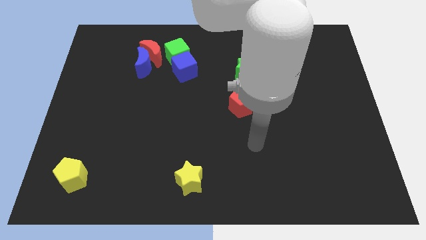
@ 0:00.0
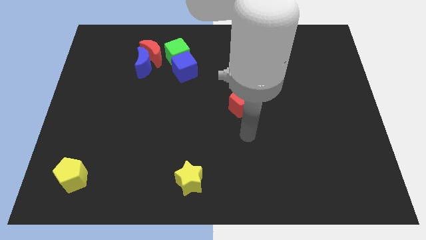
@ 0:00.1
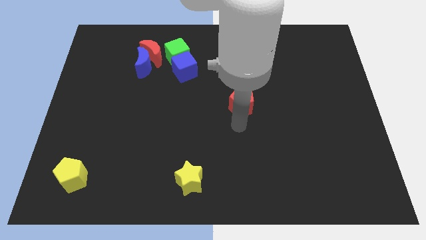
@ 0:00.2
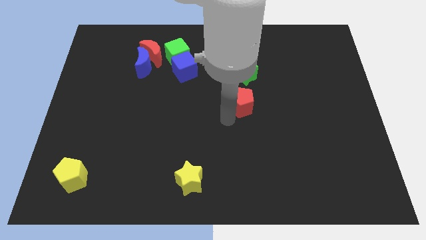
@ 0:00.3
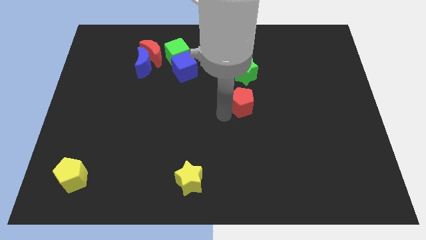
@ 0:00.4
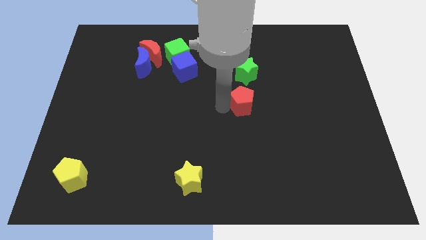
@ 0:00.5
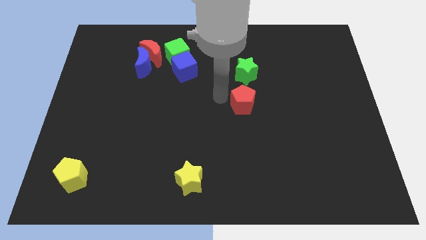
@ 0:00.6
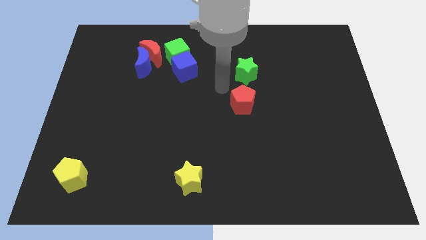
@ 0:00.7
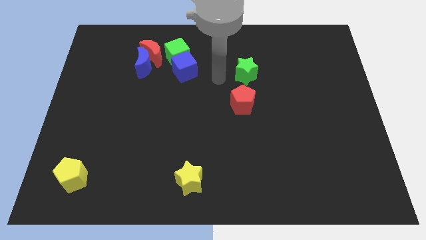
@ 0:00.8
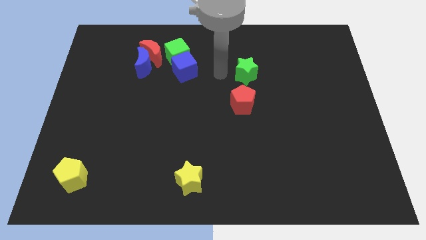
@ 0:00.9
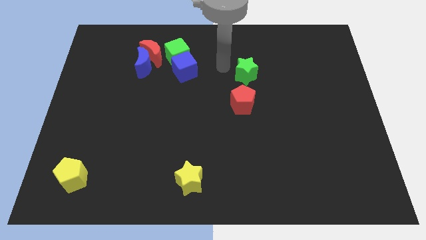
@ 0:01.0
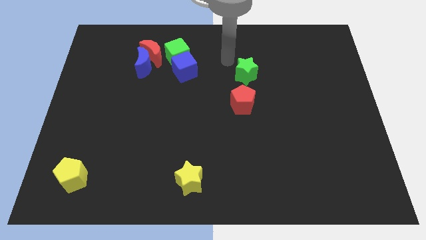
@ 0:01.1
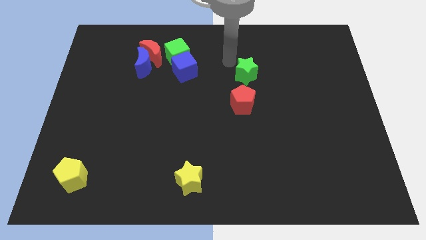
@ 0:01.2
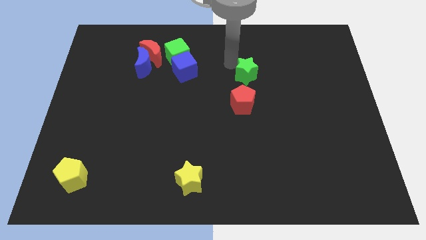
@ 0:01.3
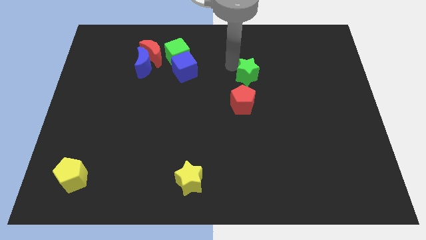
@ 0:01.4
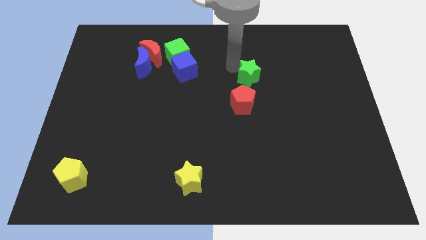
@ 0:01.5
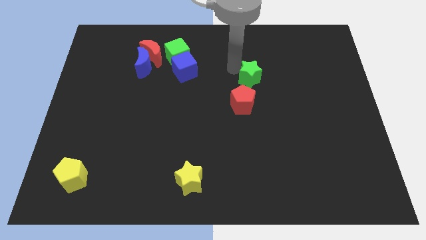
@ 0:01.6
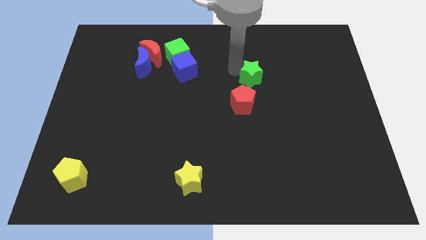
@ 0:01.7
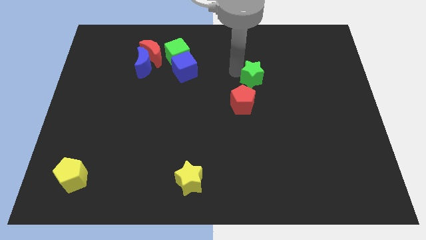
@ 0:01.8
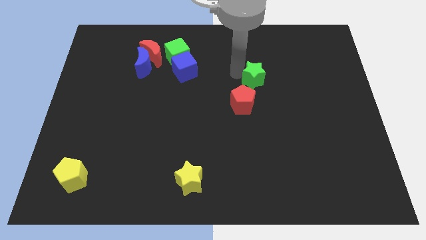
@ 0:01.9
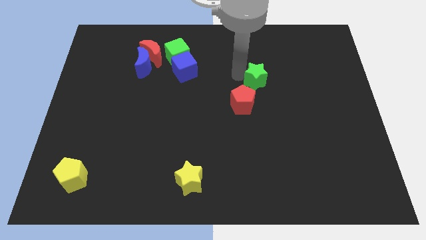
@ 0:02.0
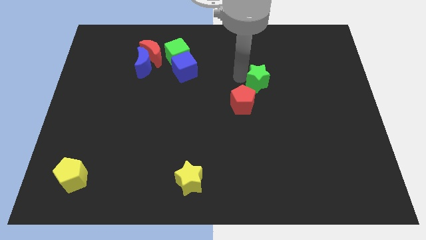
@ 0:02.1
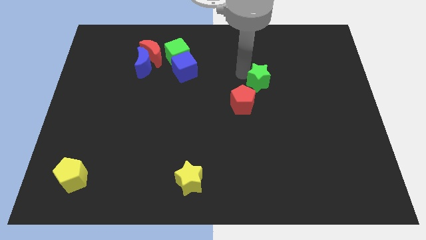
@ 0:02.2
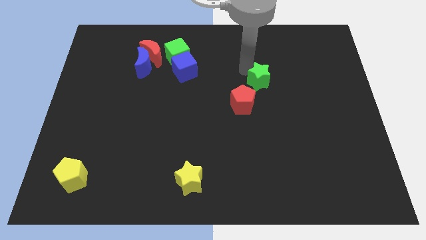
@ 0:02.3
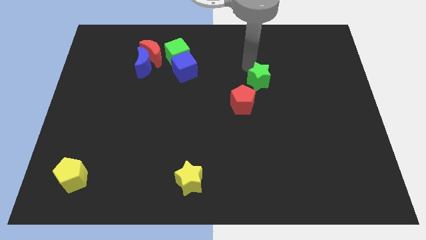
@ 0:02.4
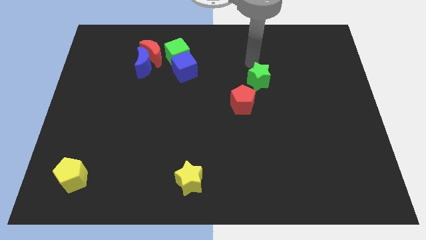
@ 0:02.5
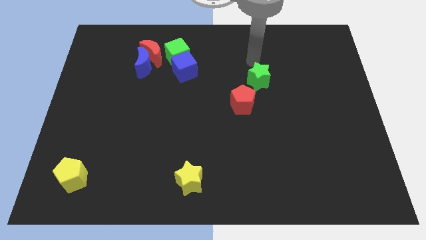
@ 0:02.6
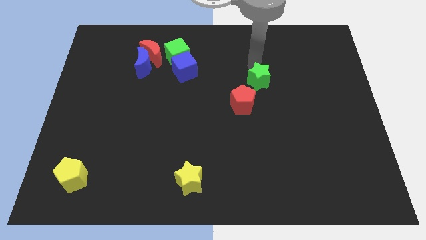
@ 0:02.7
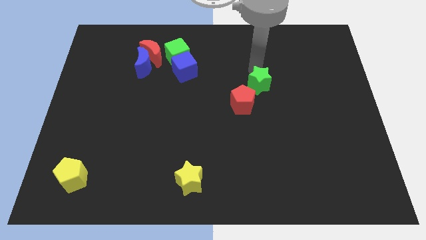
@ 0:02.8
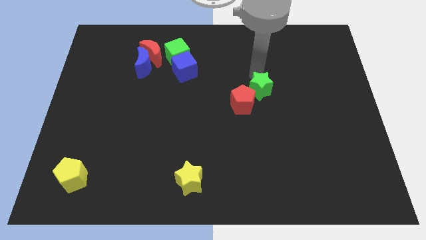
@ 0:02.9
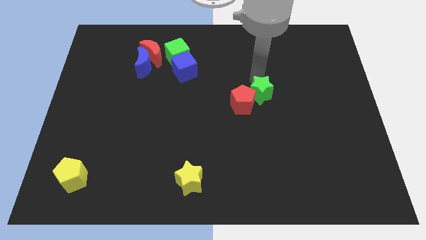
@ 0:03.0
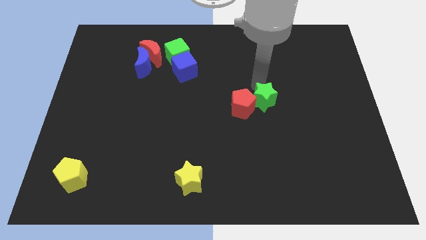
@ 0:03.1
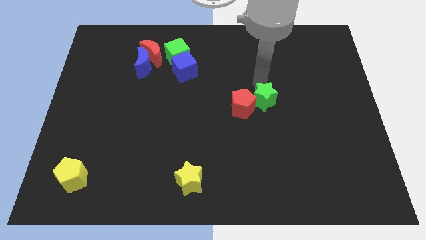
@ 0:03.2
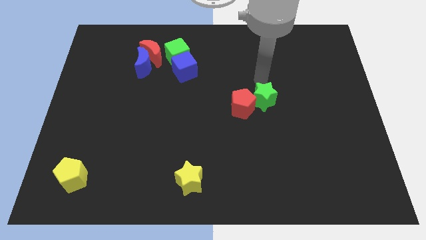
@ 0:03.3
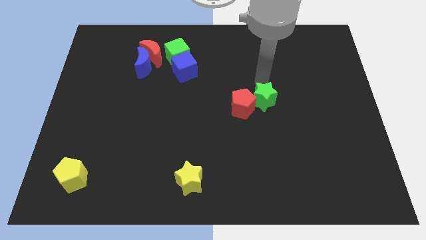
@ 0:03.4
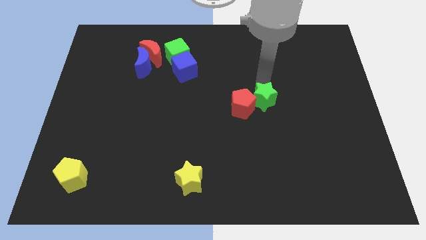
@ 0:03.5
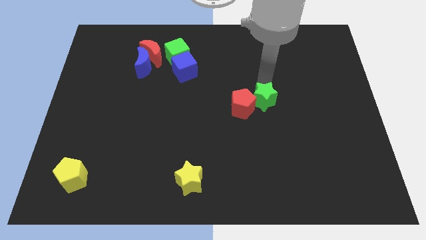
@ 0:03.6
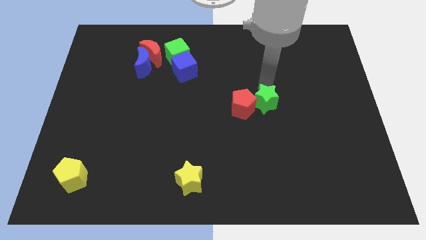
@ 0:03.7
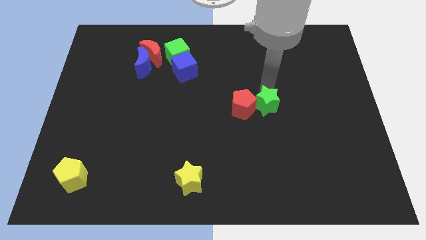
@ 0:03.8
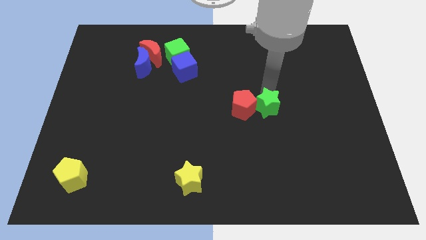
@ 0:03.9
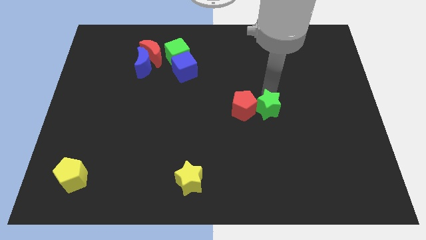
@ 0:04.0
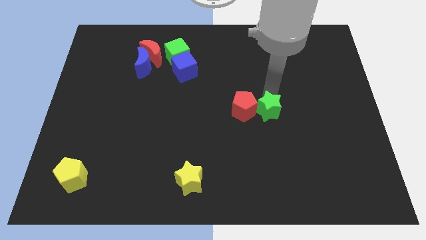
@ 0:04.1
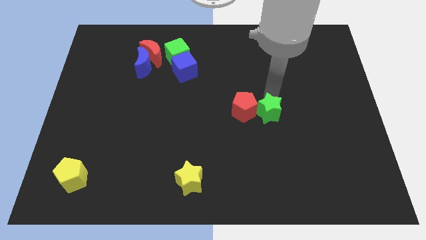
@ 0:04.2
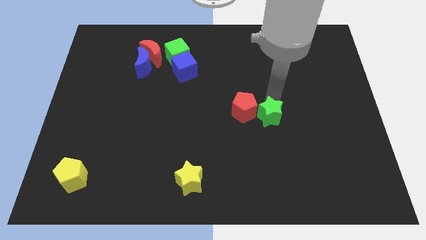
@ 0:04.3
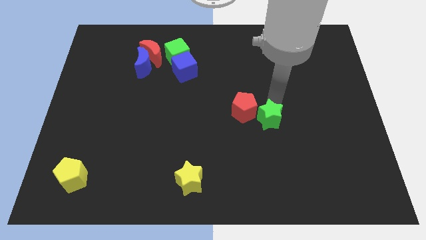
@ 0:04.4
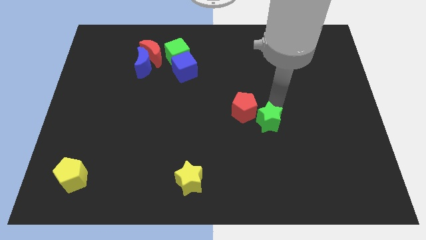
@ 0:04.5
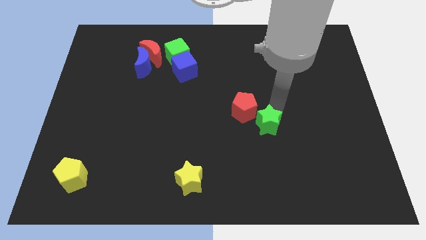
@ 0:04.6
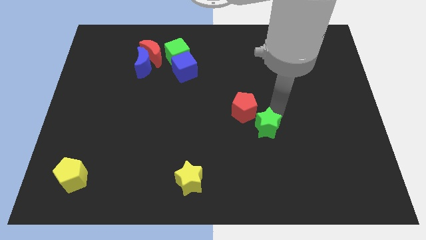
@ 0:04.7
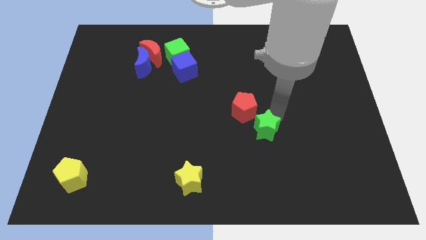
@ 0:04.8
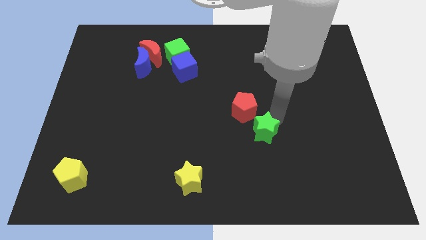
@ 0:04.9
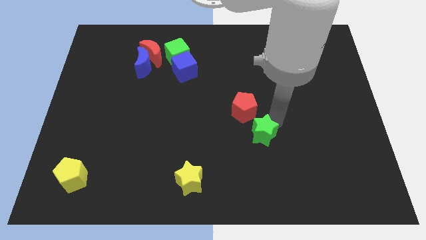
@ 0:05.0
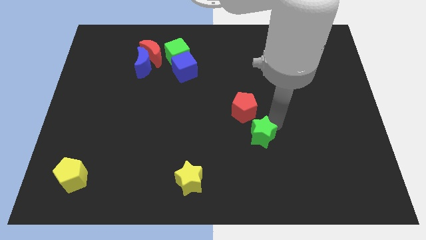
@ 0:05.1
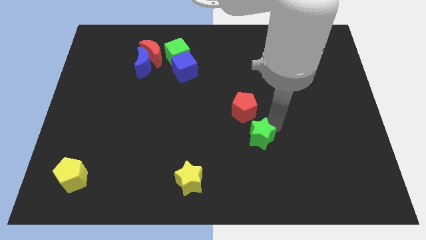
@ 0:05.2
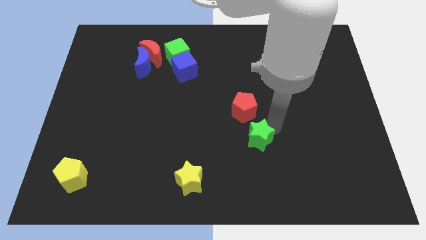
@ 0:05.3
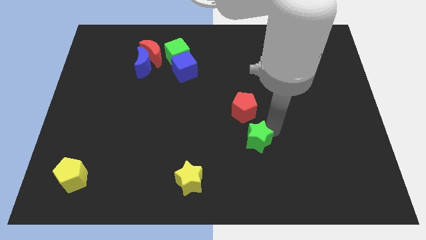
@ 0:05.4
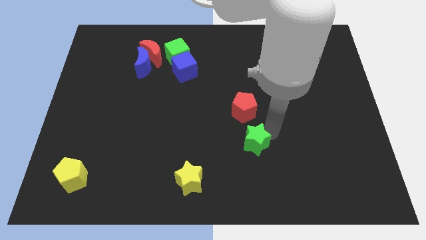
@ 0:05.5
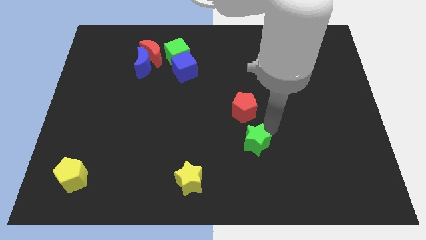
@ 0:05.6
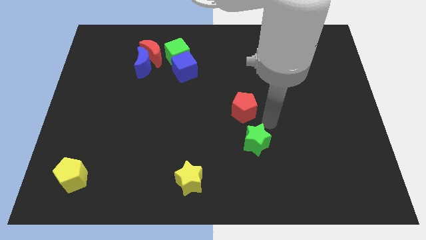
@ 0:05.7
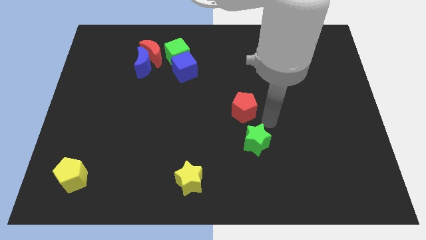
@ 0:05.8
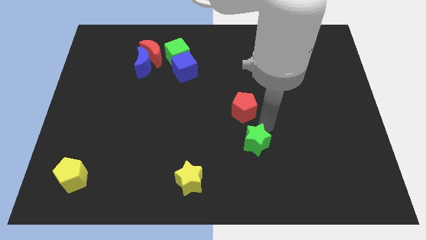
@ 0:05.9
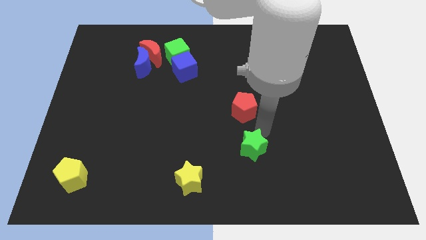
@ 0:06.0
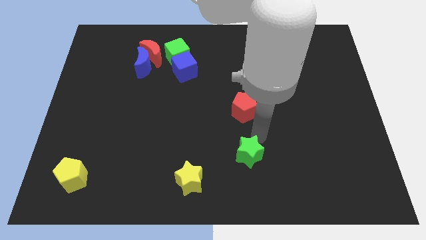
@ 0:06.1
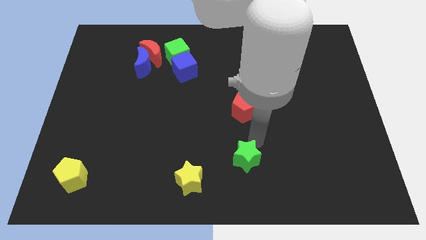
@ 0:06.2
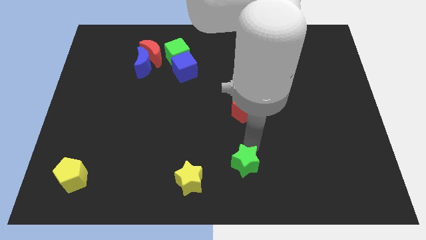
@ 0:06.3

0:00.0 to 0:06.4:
push the green star to the right side of the yellow star

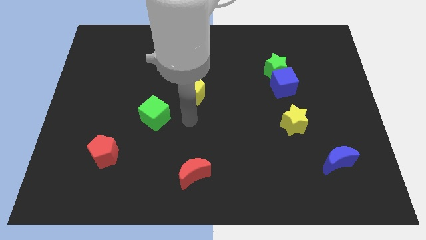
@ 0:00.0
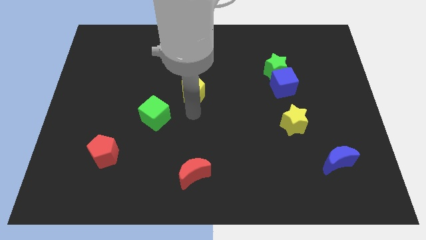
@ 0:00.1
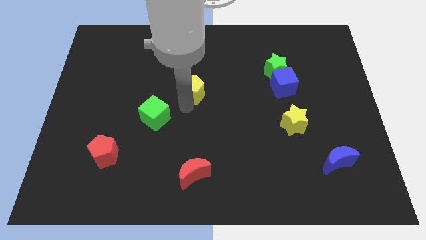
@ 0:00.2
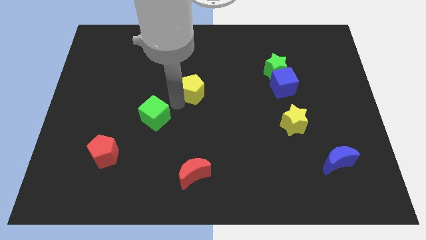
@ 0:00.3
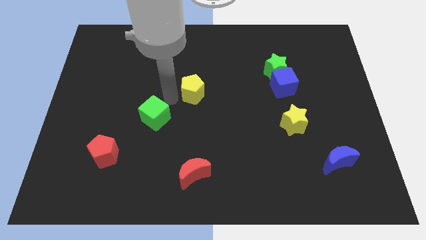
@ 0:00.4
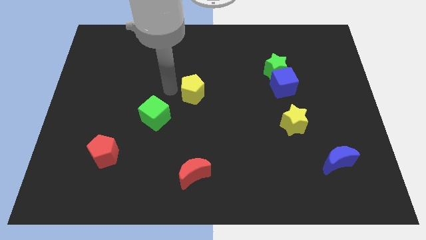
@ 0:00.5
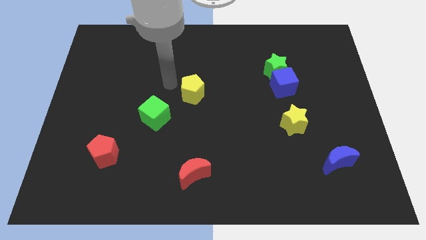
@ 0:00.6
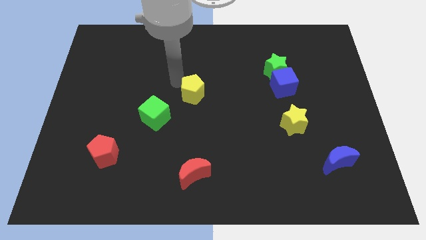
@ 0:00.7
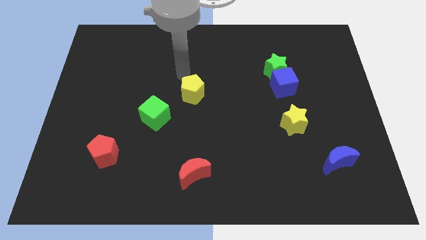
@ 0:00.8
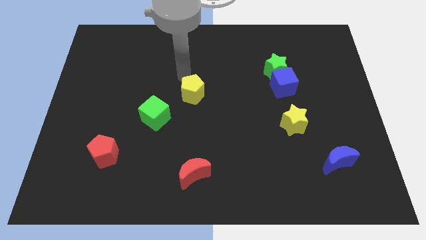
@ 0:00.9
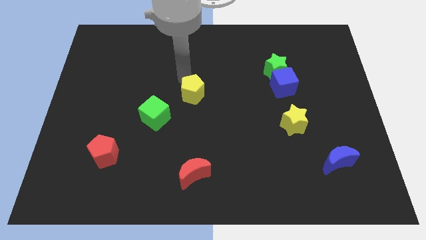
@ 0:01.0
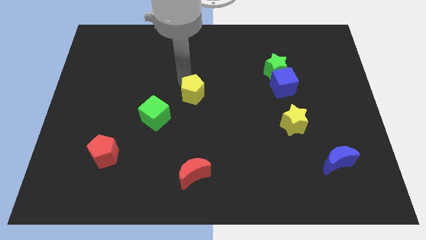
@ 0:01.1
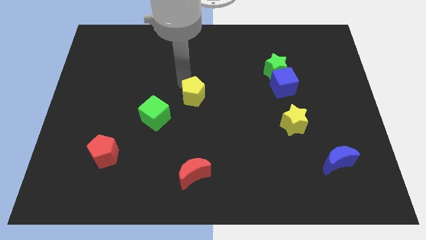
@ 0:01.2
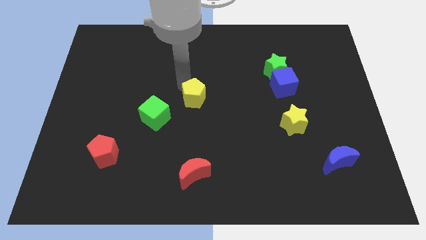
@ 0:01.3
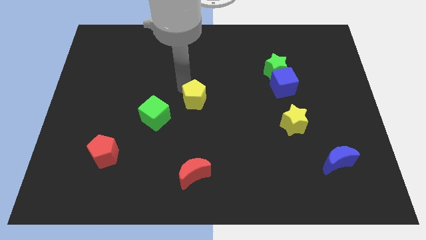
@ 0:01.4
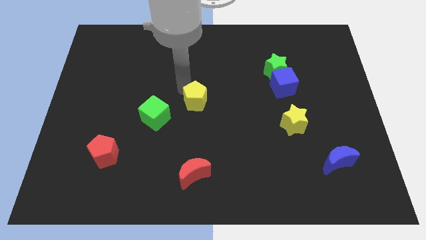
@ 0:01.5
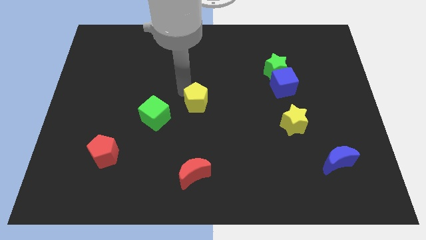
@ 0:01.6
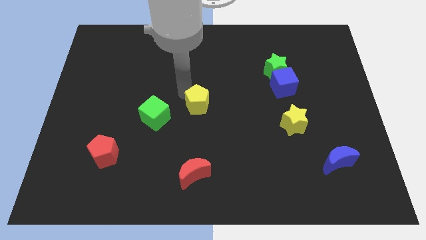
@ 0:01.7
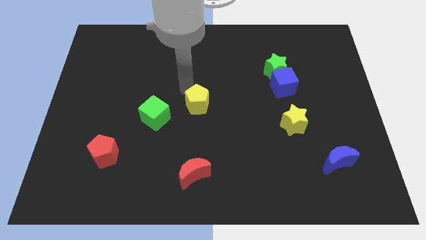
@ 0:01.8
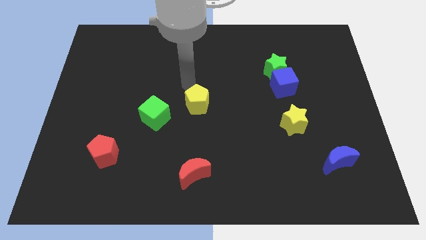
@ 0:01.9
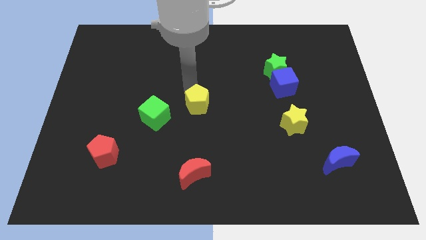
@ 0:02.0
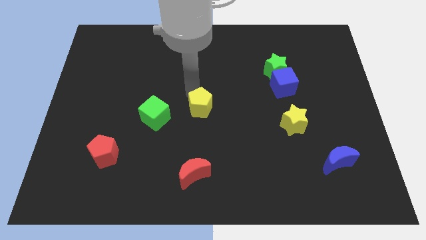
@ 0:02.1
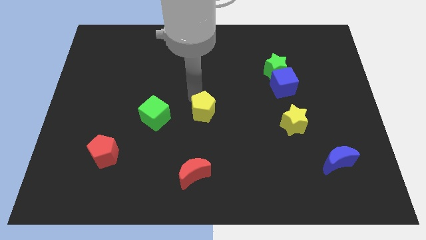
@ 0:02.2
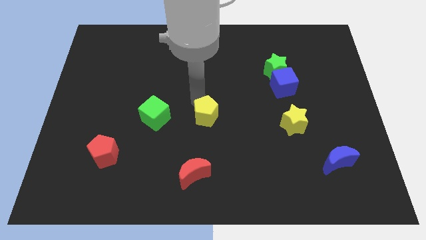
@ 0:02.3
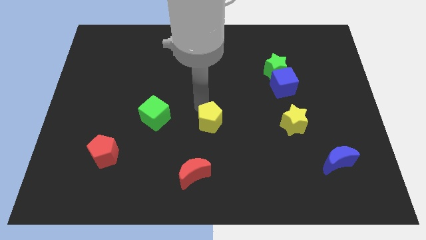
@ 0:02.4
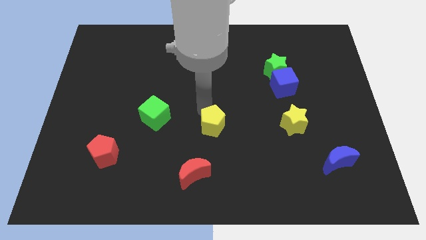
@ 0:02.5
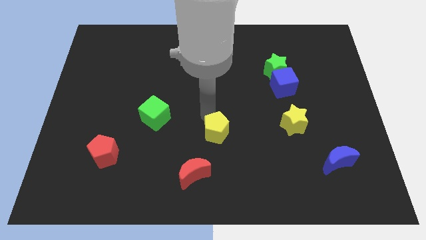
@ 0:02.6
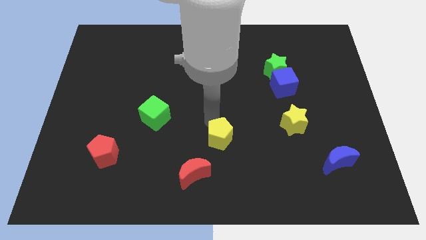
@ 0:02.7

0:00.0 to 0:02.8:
move the yellow pentagon diagonally up and to the right of the red moon
